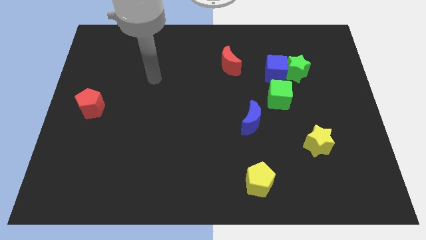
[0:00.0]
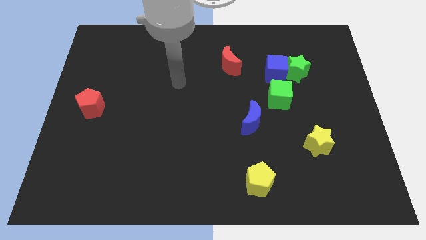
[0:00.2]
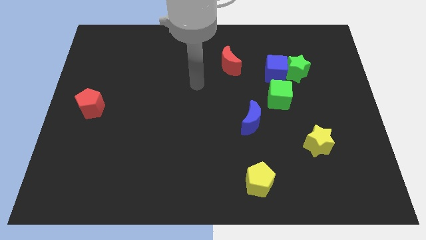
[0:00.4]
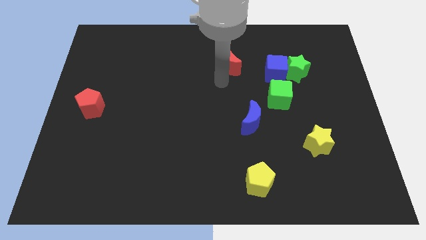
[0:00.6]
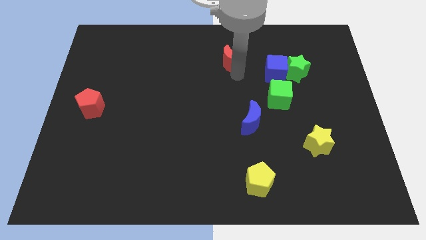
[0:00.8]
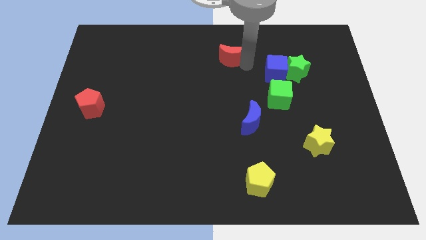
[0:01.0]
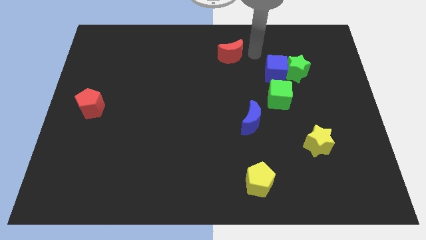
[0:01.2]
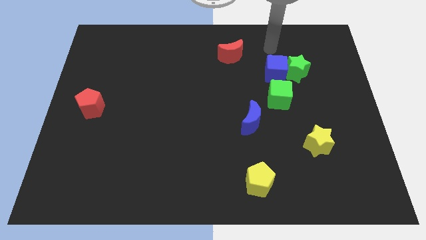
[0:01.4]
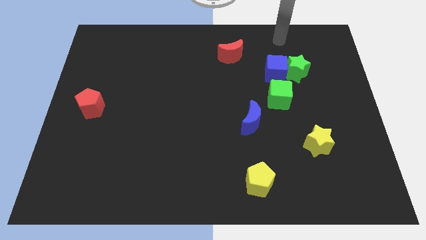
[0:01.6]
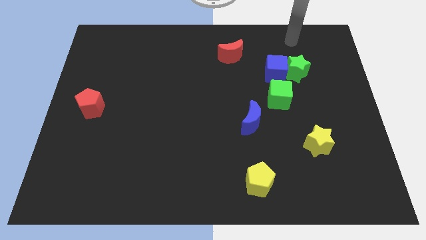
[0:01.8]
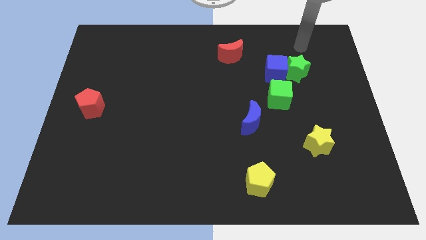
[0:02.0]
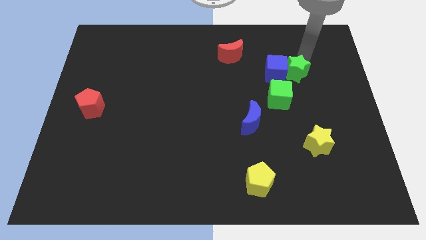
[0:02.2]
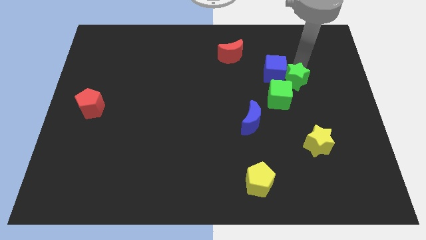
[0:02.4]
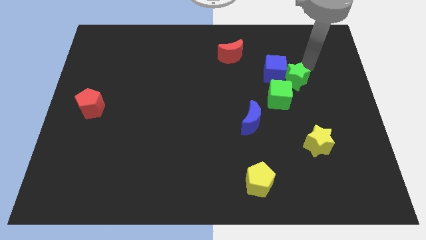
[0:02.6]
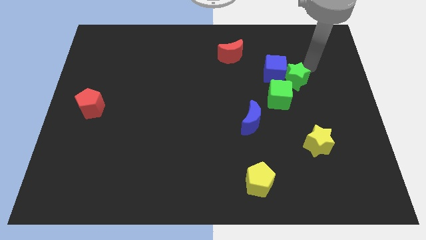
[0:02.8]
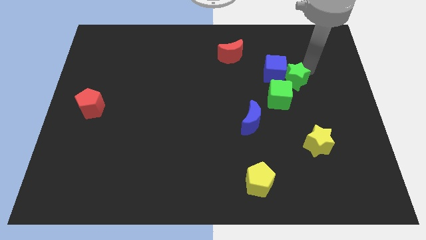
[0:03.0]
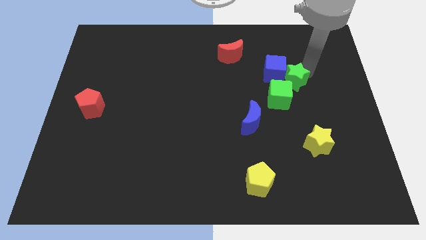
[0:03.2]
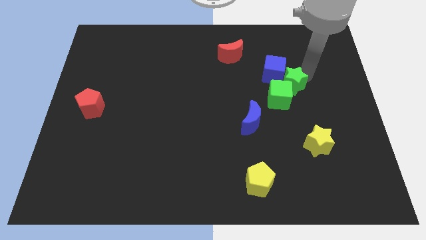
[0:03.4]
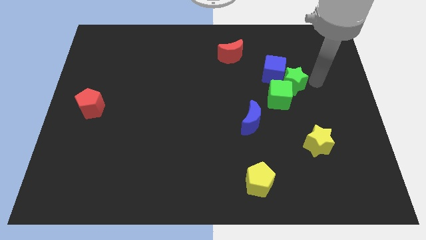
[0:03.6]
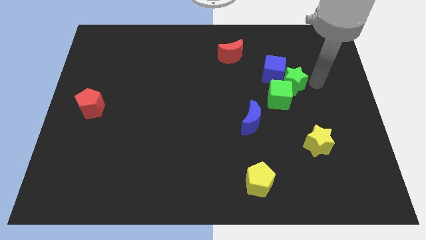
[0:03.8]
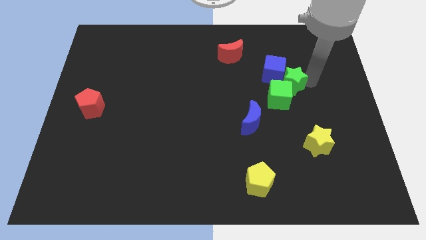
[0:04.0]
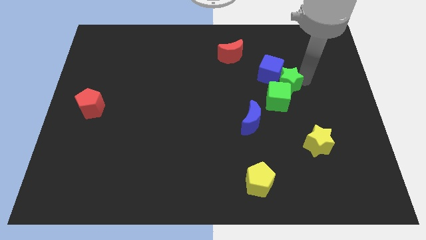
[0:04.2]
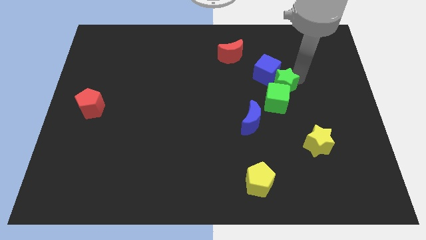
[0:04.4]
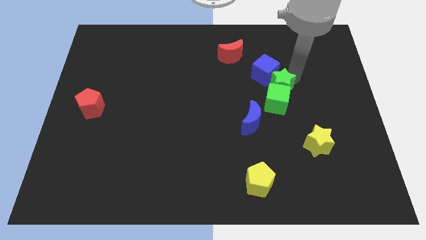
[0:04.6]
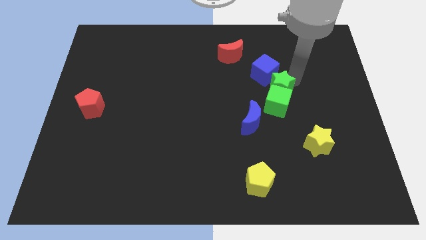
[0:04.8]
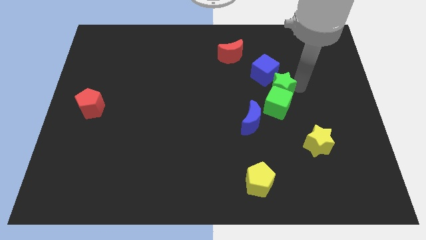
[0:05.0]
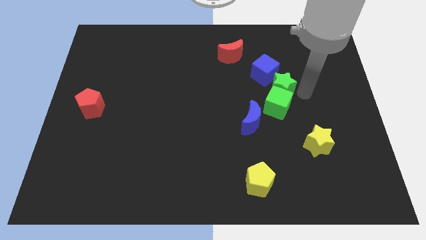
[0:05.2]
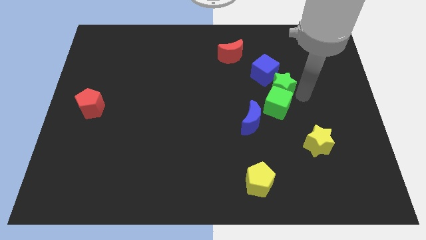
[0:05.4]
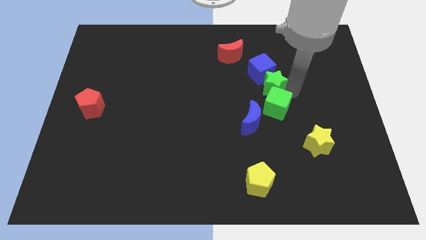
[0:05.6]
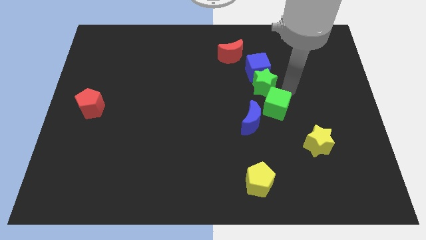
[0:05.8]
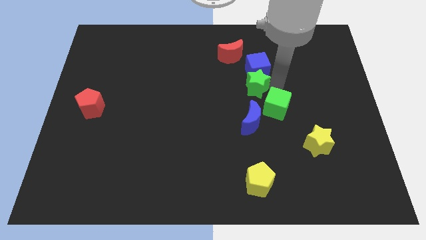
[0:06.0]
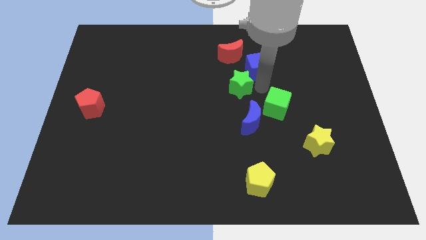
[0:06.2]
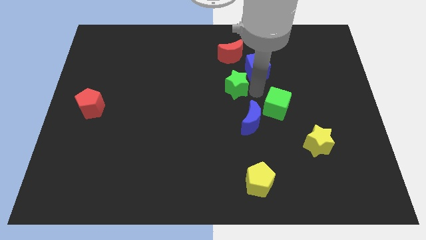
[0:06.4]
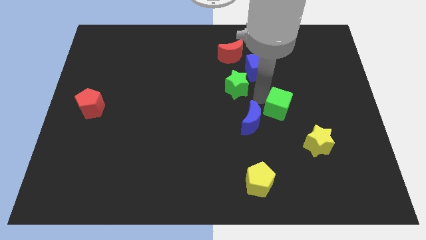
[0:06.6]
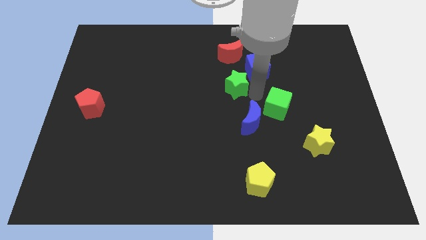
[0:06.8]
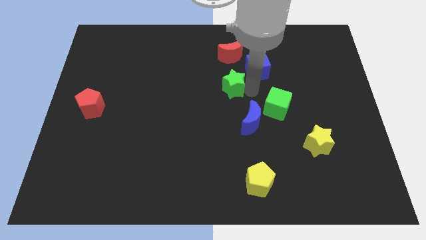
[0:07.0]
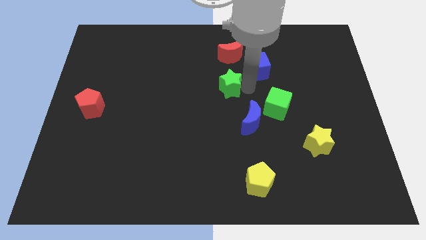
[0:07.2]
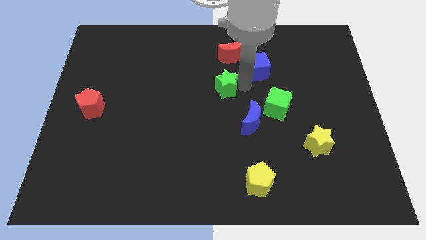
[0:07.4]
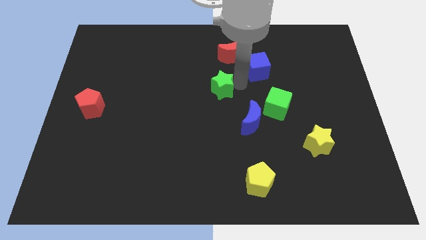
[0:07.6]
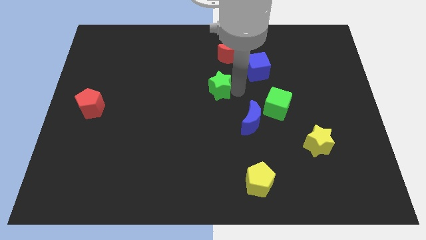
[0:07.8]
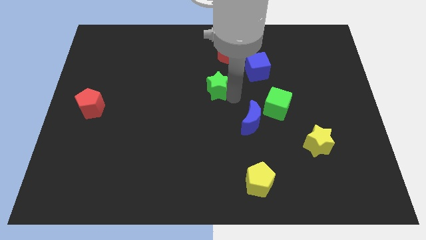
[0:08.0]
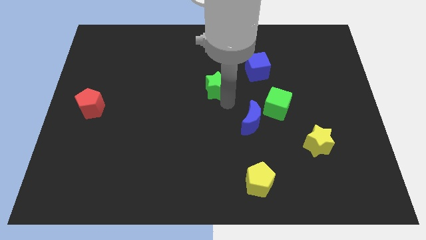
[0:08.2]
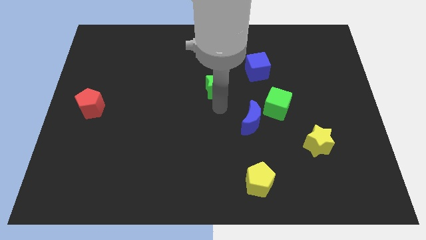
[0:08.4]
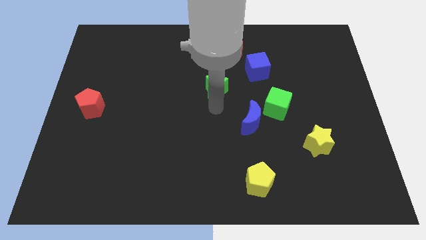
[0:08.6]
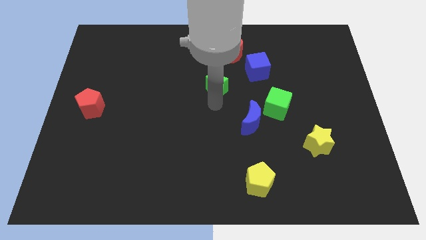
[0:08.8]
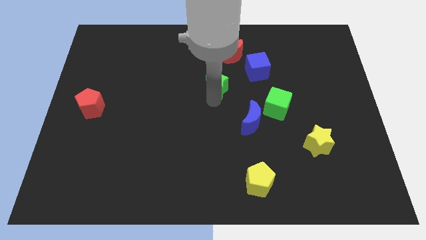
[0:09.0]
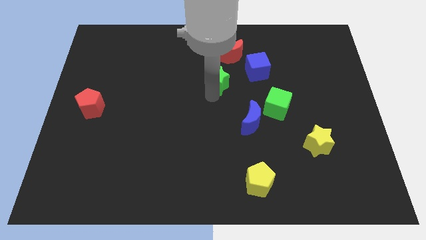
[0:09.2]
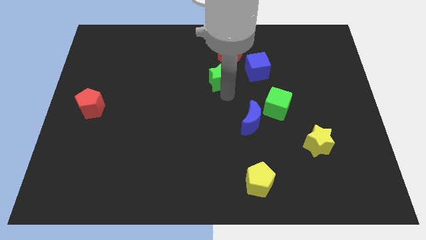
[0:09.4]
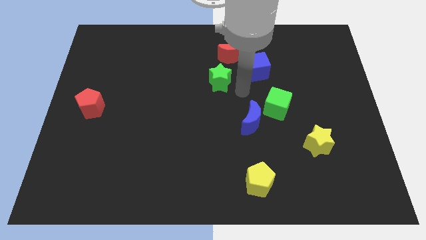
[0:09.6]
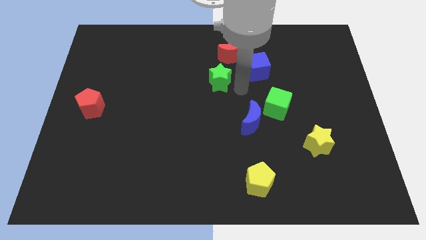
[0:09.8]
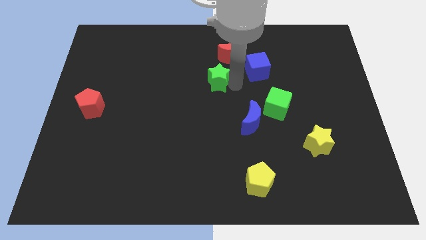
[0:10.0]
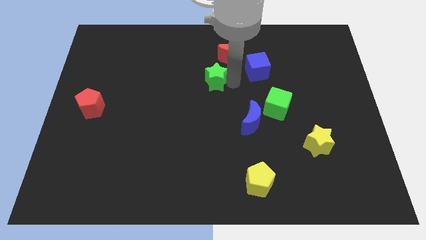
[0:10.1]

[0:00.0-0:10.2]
move the green star left

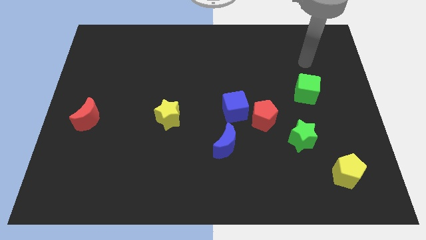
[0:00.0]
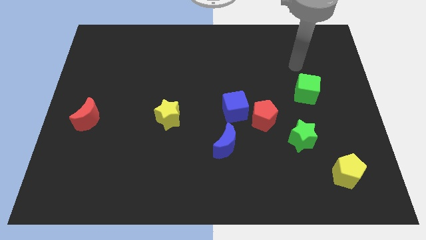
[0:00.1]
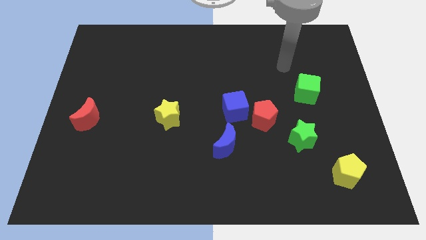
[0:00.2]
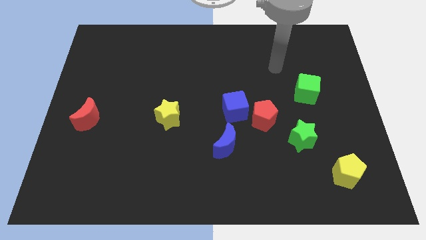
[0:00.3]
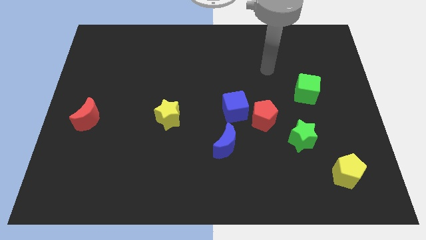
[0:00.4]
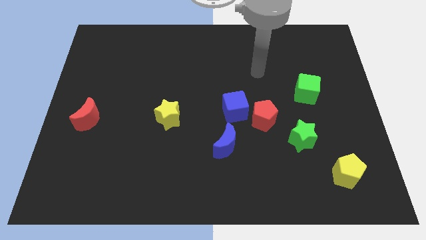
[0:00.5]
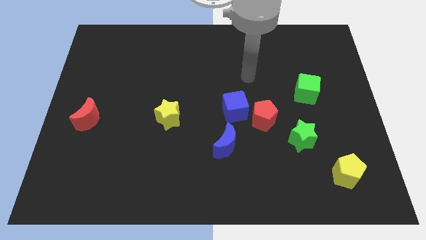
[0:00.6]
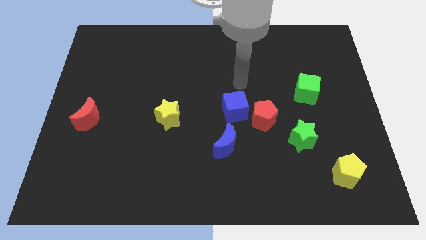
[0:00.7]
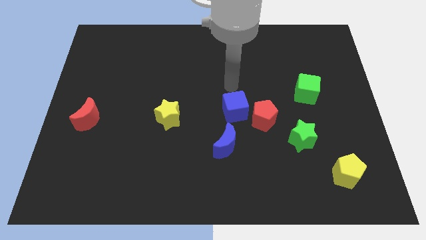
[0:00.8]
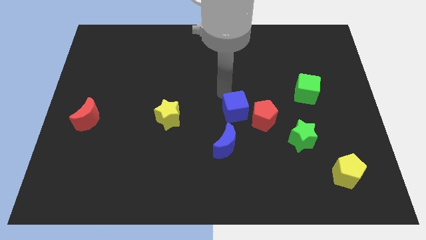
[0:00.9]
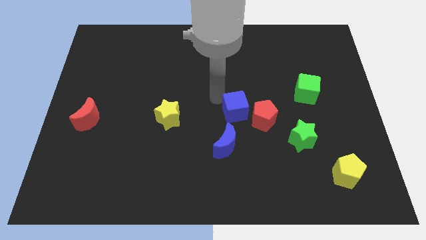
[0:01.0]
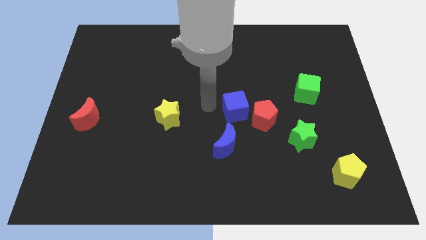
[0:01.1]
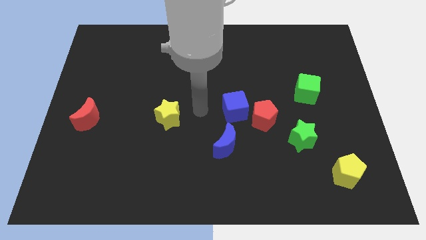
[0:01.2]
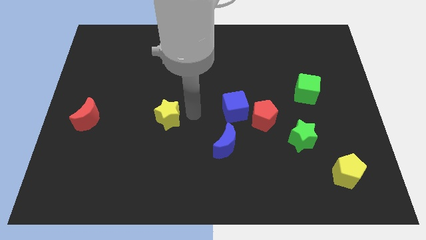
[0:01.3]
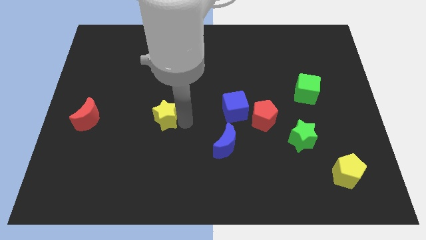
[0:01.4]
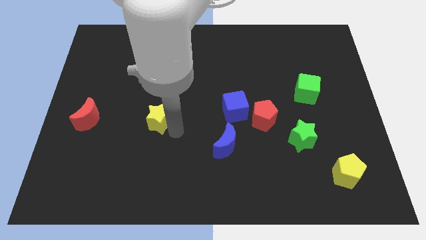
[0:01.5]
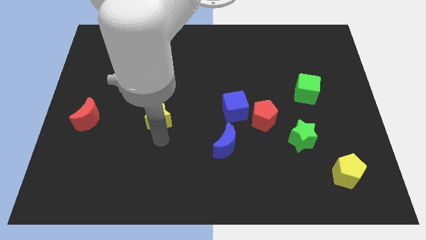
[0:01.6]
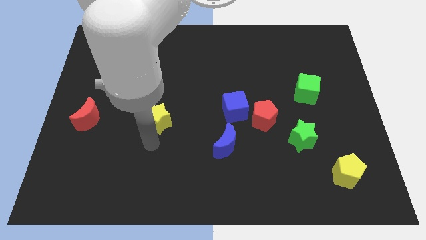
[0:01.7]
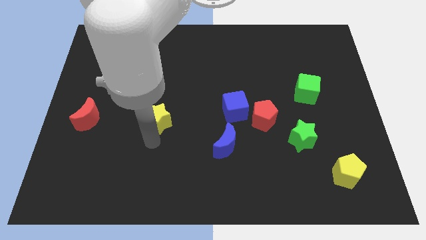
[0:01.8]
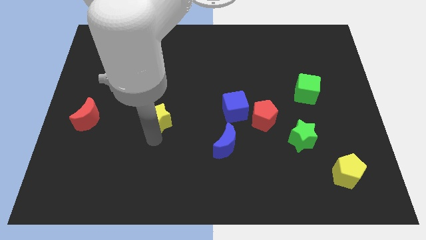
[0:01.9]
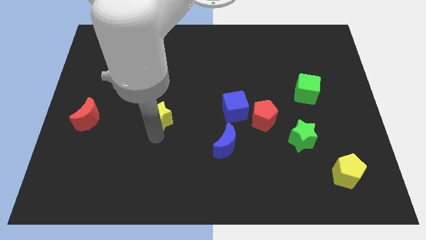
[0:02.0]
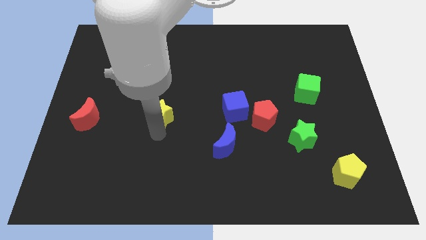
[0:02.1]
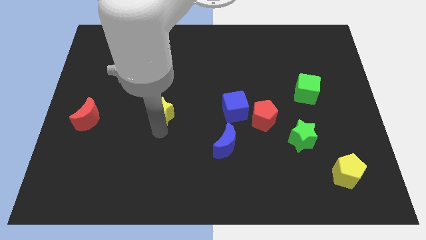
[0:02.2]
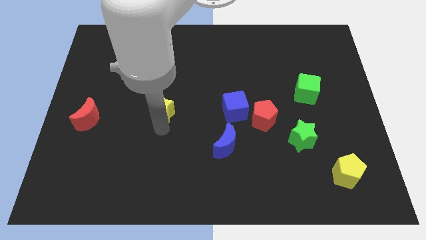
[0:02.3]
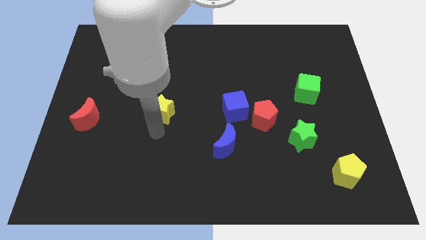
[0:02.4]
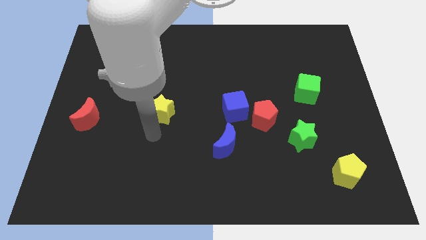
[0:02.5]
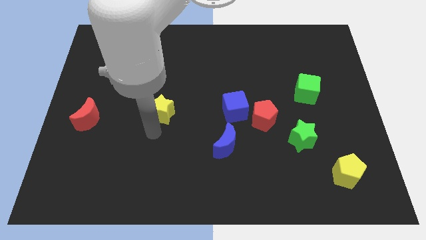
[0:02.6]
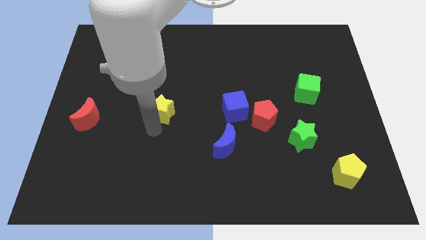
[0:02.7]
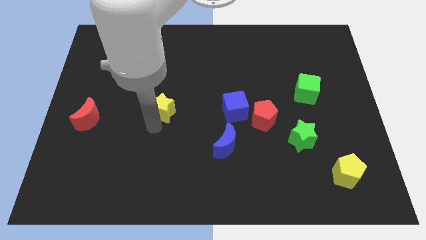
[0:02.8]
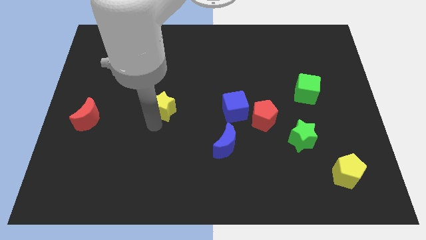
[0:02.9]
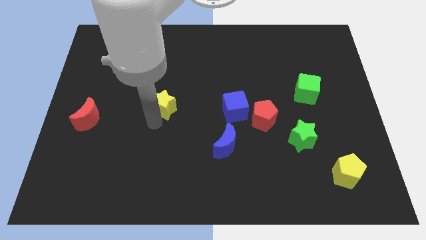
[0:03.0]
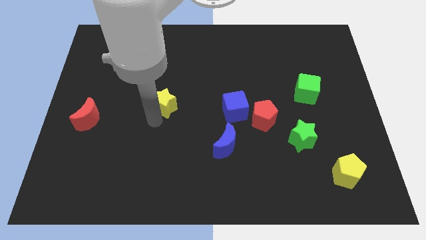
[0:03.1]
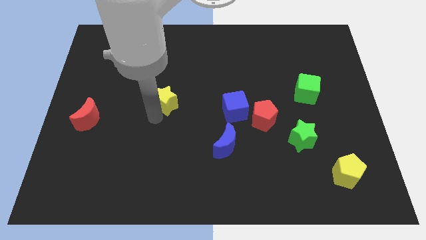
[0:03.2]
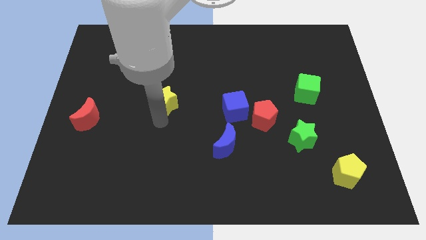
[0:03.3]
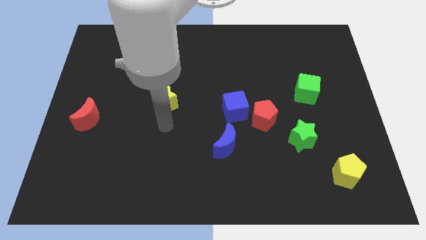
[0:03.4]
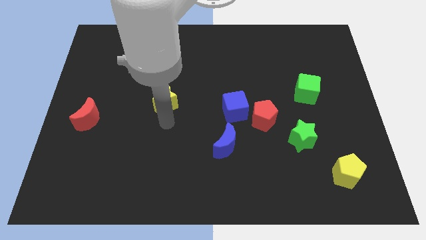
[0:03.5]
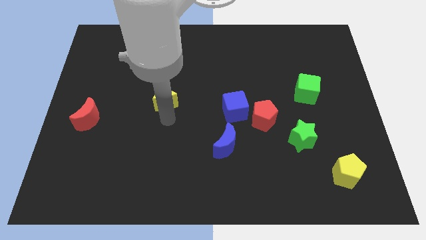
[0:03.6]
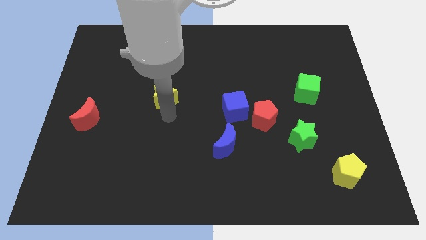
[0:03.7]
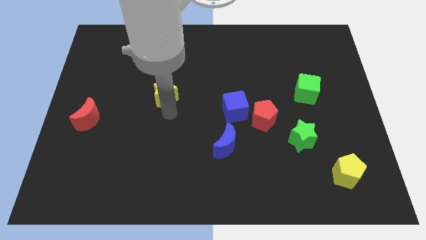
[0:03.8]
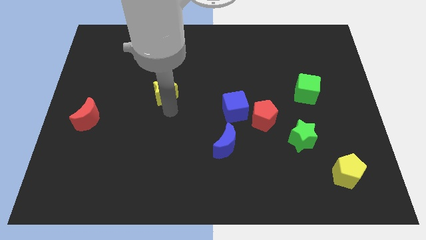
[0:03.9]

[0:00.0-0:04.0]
slide the yellow star upwards a little
